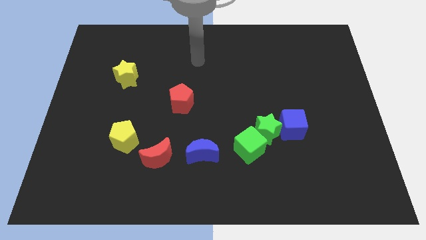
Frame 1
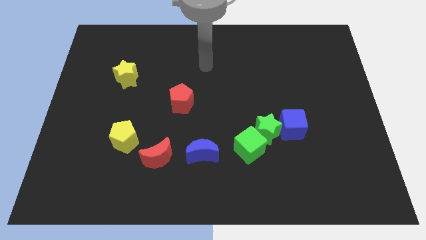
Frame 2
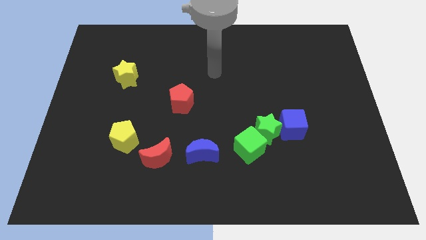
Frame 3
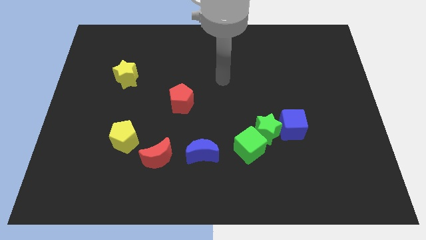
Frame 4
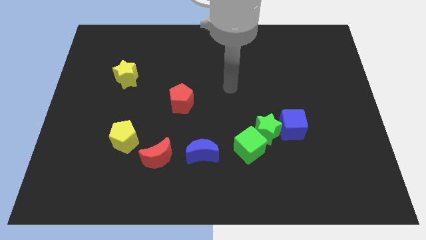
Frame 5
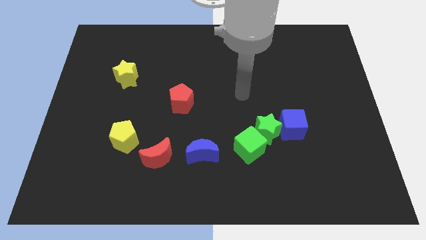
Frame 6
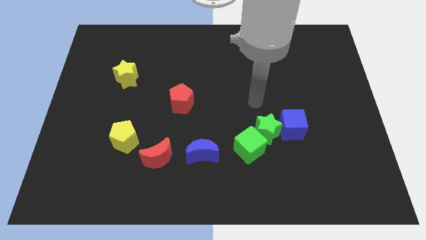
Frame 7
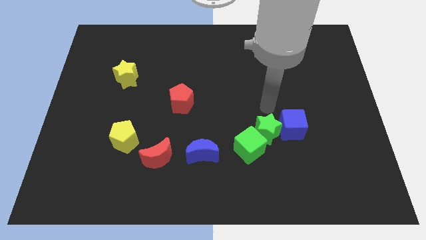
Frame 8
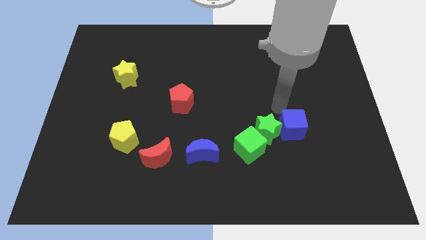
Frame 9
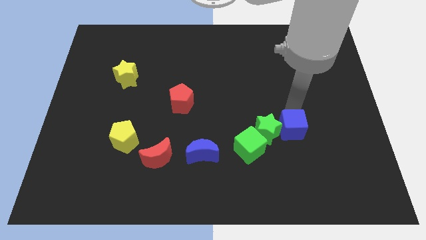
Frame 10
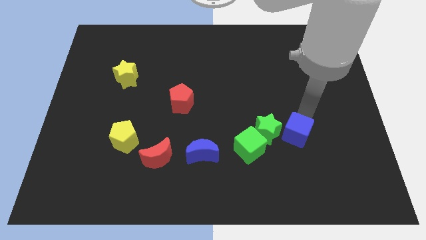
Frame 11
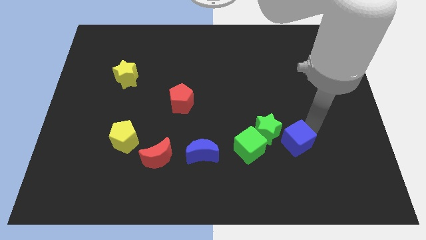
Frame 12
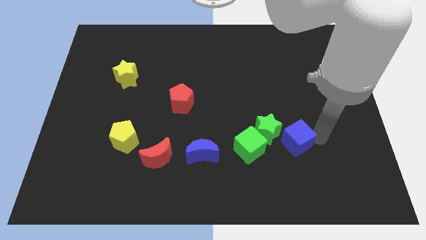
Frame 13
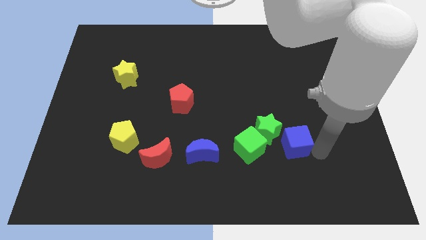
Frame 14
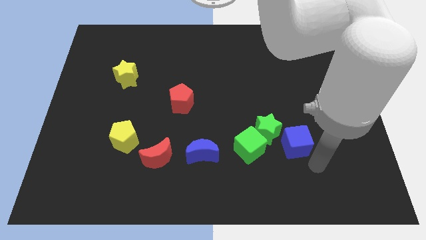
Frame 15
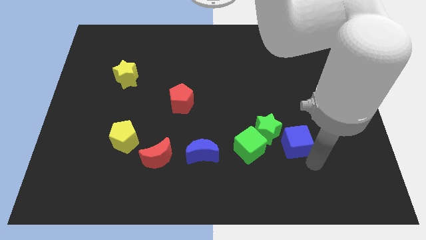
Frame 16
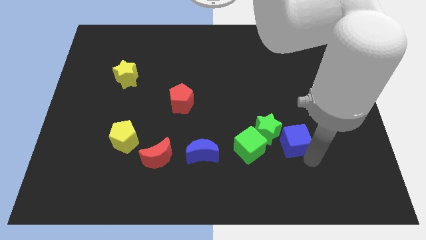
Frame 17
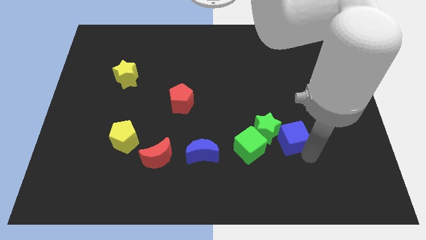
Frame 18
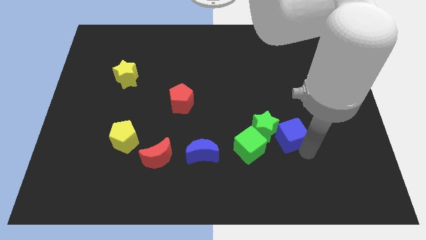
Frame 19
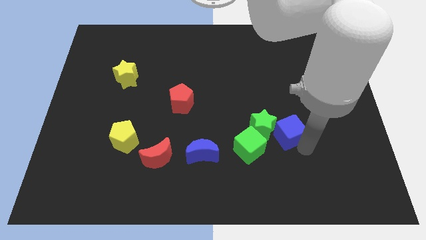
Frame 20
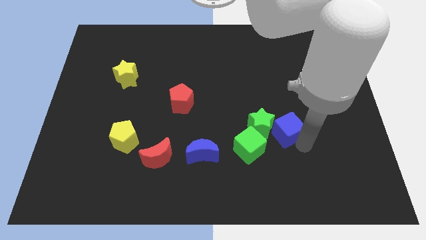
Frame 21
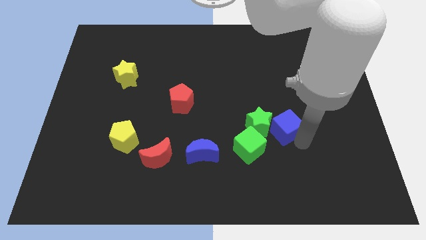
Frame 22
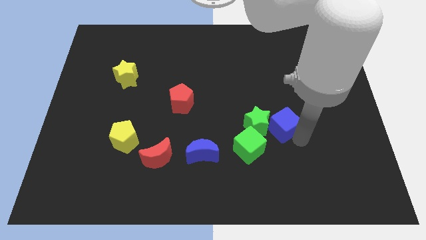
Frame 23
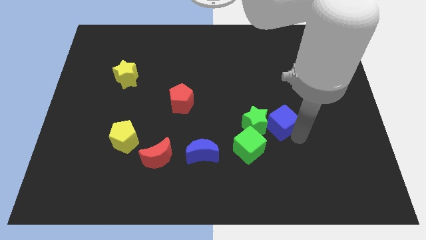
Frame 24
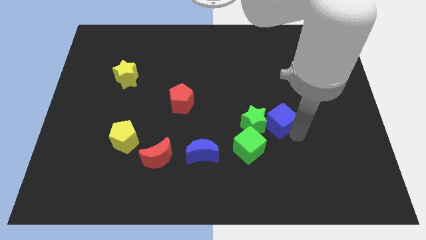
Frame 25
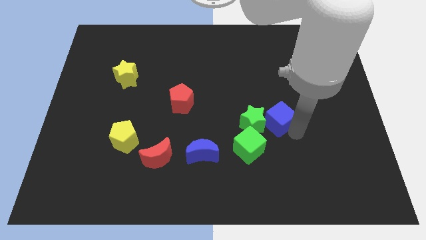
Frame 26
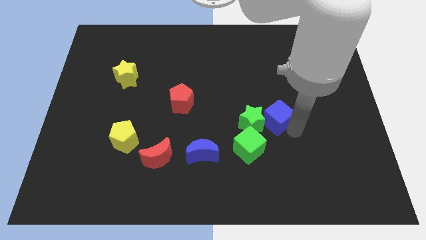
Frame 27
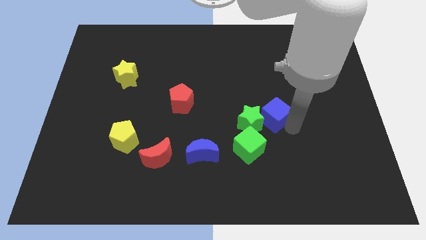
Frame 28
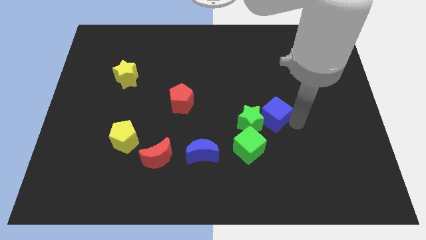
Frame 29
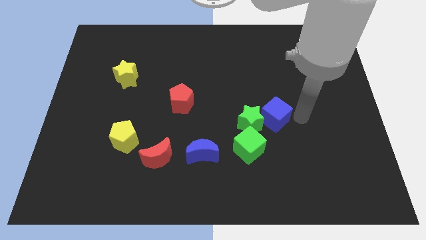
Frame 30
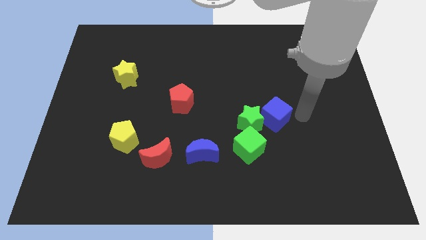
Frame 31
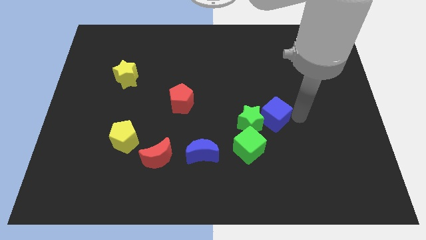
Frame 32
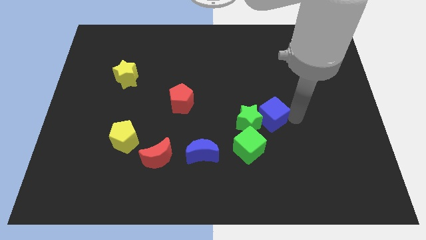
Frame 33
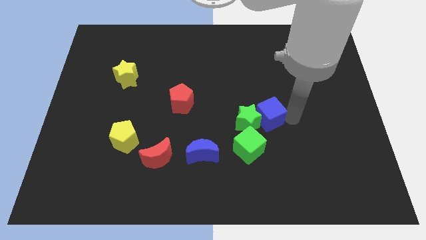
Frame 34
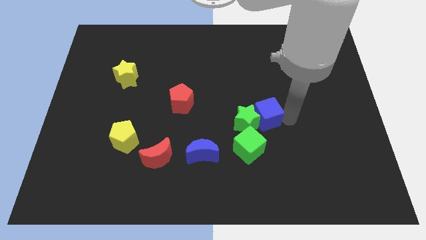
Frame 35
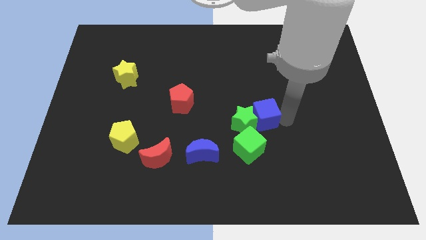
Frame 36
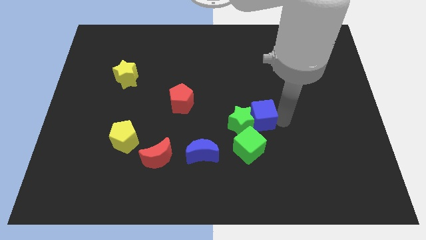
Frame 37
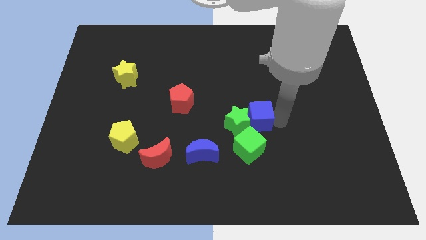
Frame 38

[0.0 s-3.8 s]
slide the blue cube left a little

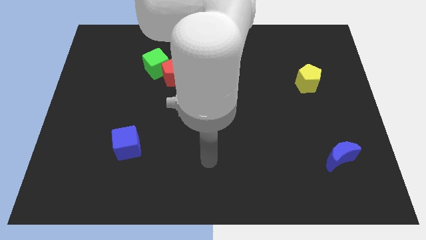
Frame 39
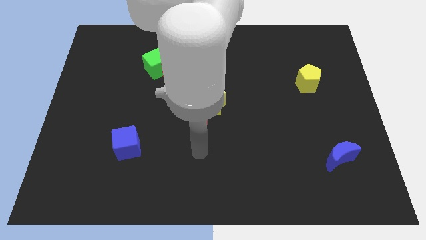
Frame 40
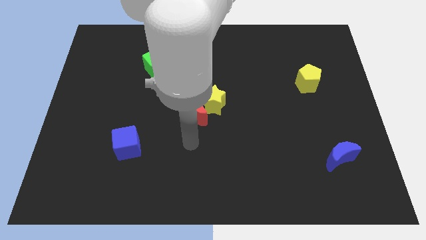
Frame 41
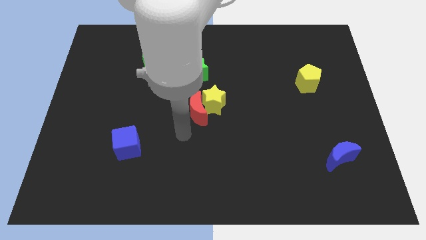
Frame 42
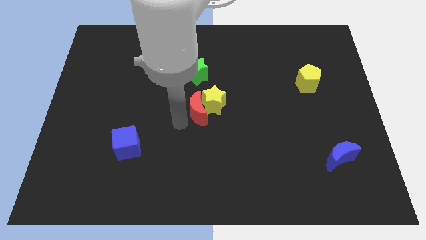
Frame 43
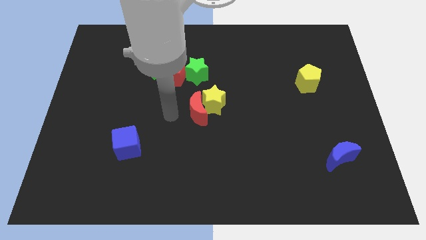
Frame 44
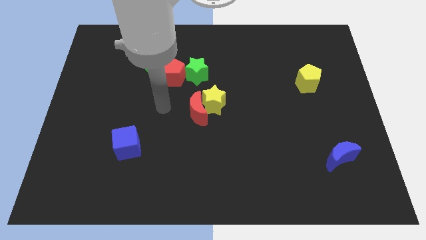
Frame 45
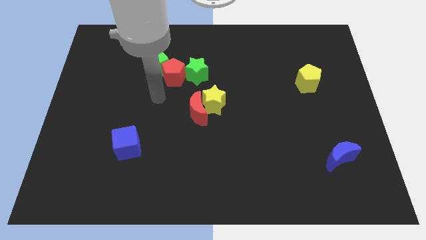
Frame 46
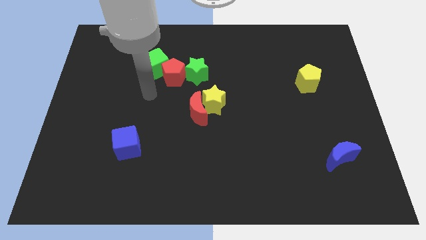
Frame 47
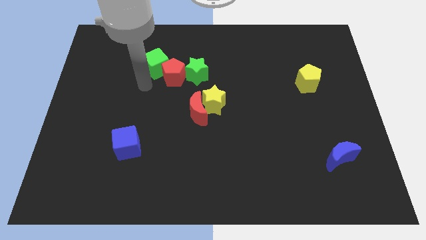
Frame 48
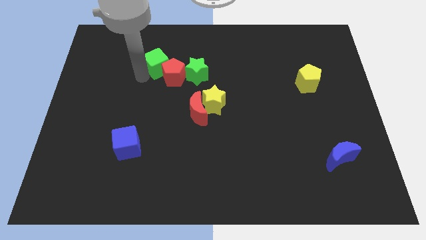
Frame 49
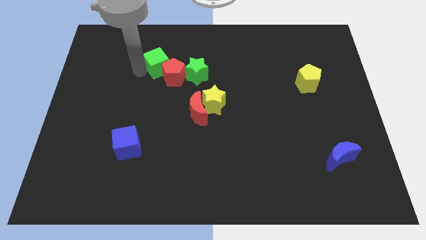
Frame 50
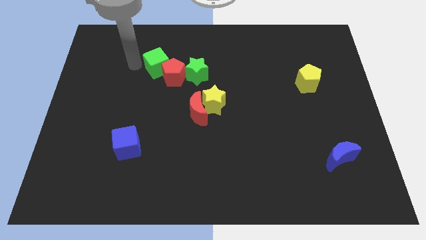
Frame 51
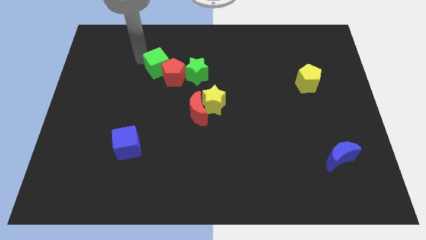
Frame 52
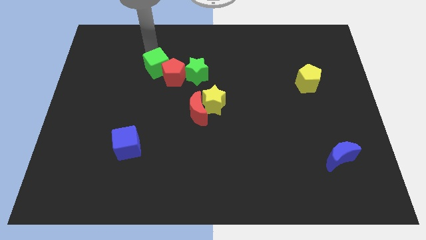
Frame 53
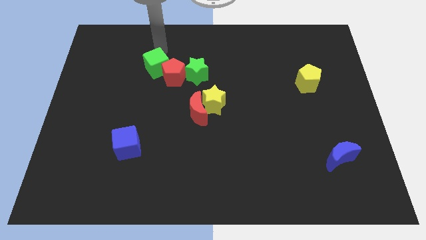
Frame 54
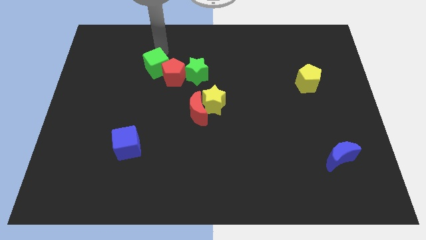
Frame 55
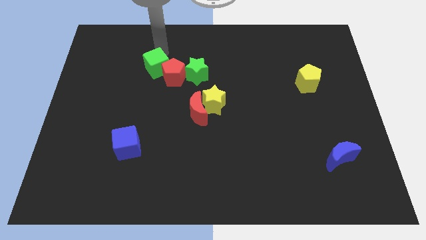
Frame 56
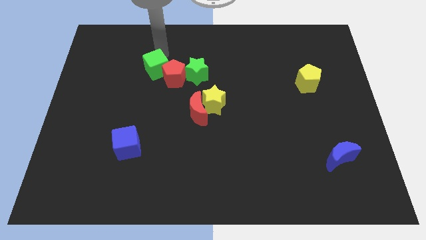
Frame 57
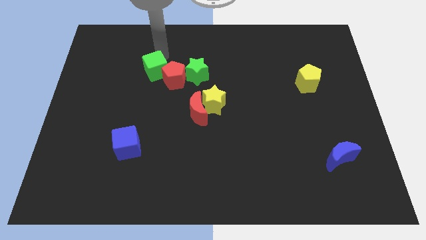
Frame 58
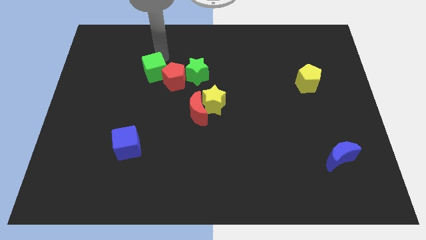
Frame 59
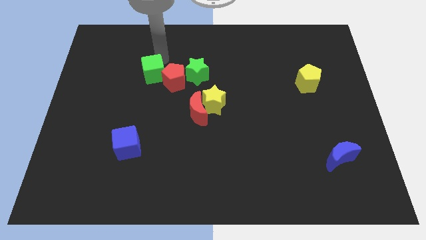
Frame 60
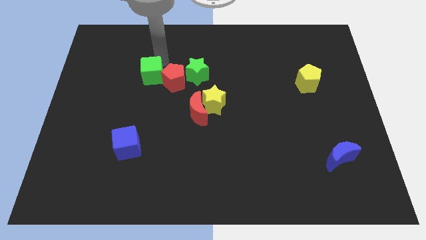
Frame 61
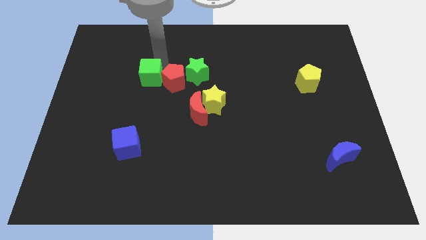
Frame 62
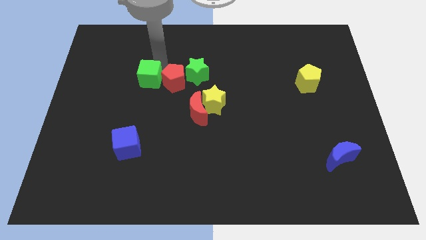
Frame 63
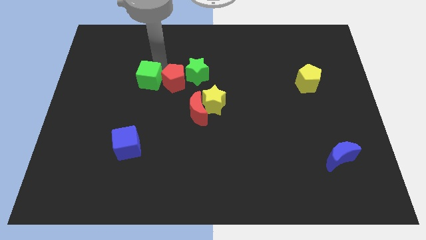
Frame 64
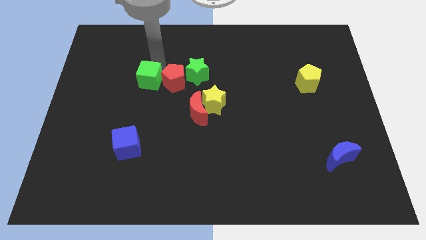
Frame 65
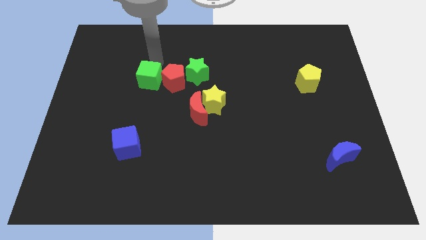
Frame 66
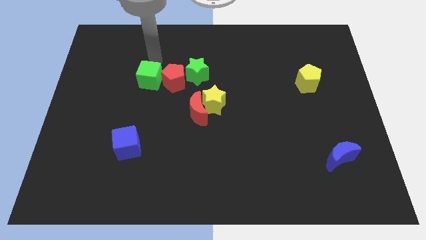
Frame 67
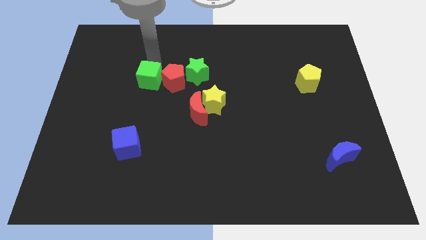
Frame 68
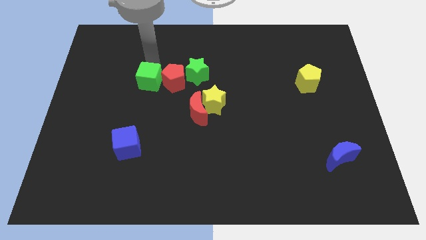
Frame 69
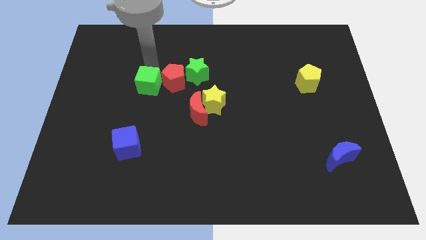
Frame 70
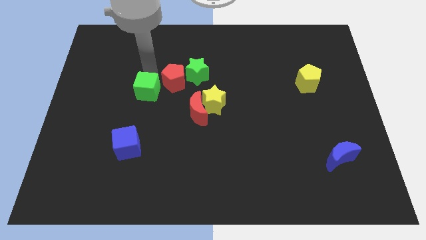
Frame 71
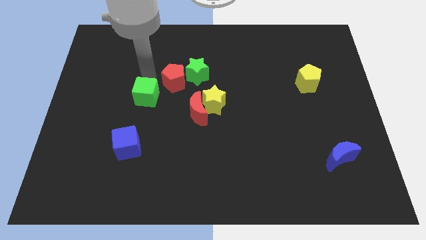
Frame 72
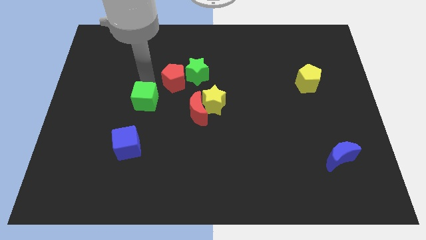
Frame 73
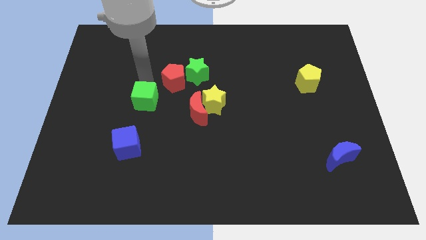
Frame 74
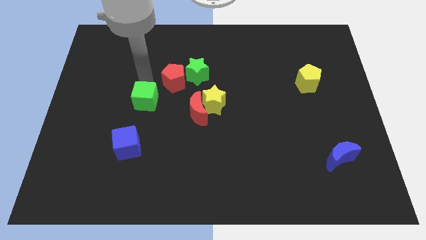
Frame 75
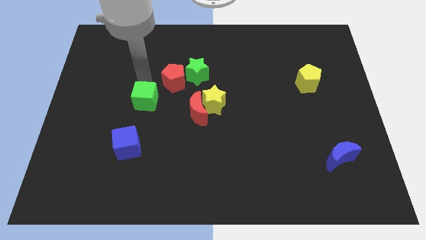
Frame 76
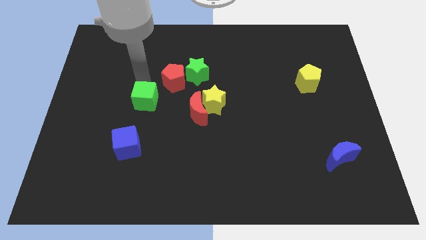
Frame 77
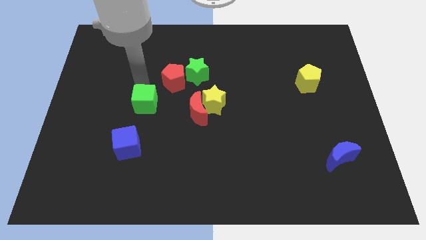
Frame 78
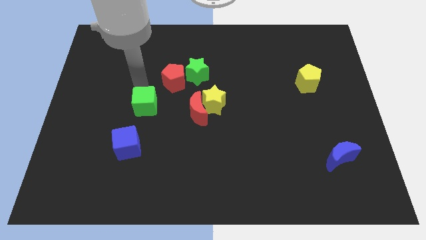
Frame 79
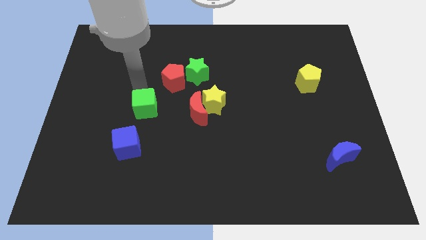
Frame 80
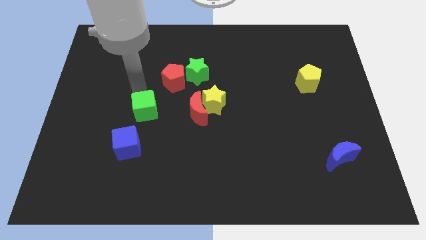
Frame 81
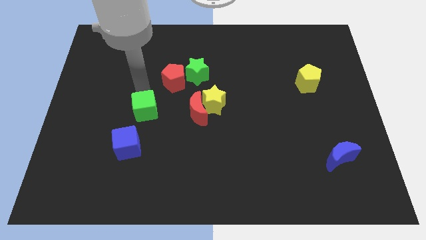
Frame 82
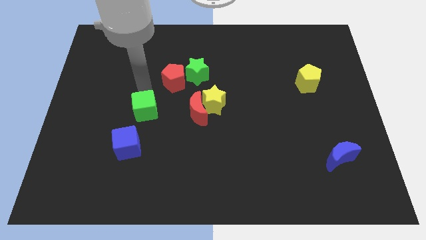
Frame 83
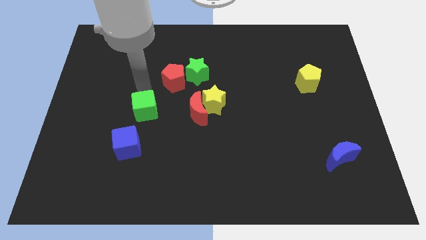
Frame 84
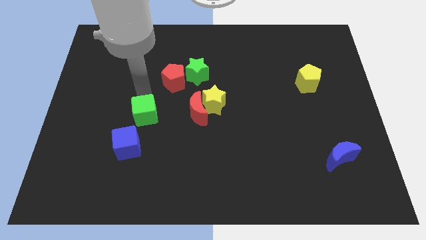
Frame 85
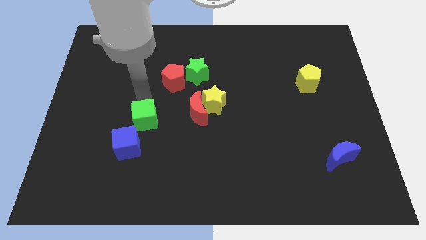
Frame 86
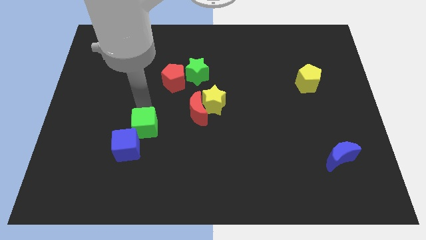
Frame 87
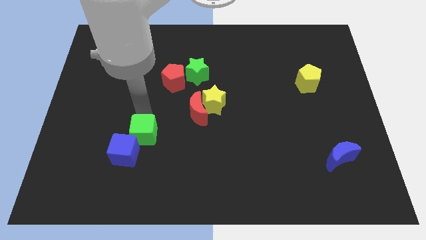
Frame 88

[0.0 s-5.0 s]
slide the green cube down
